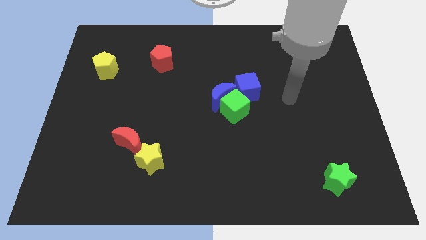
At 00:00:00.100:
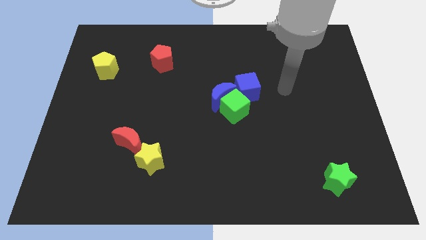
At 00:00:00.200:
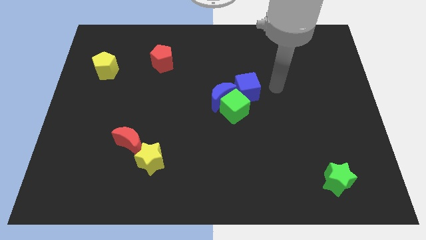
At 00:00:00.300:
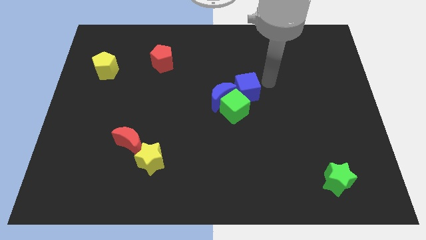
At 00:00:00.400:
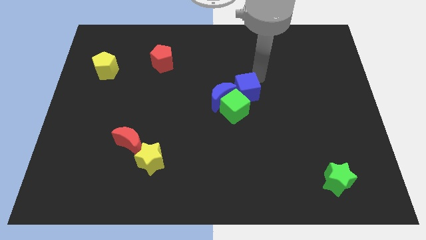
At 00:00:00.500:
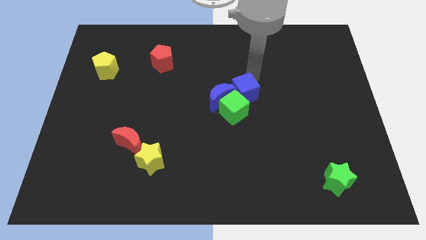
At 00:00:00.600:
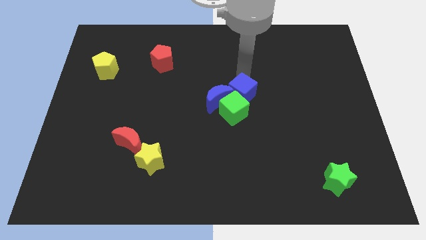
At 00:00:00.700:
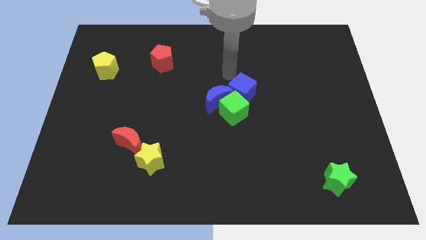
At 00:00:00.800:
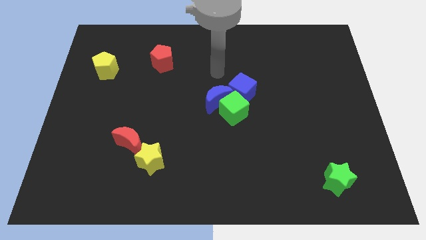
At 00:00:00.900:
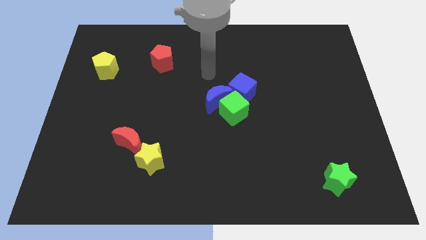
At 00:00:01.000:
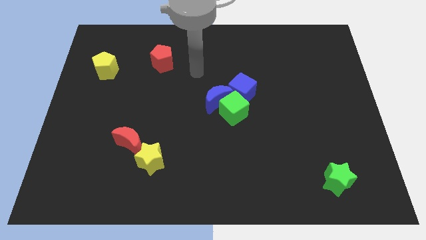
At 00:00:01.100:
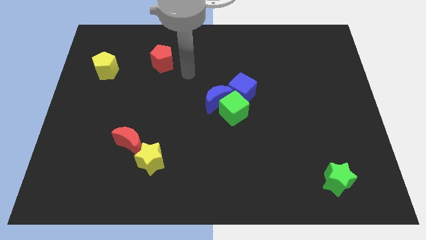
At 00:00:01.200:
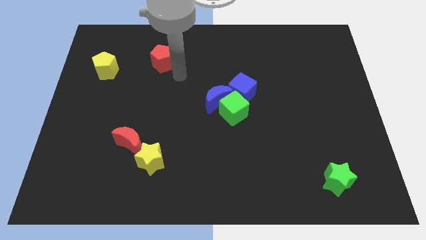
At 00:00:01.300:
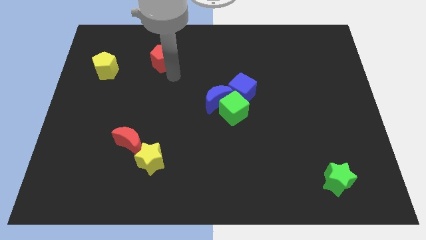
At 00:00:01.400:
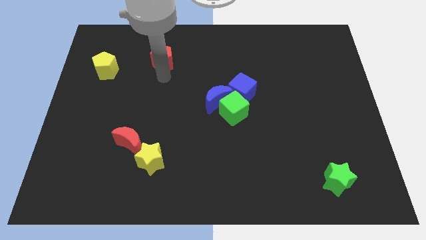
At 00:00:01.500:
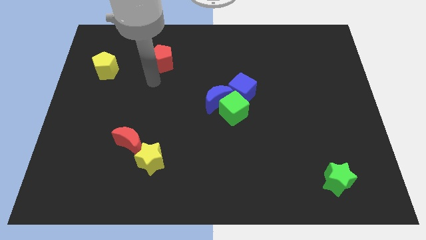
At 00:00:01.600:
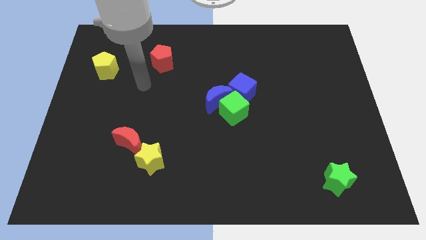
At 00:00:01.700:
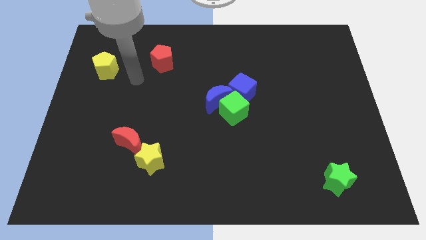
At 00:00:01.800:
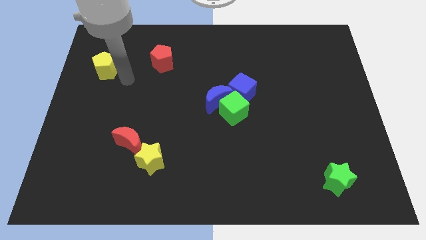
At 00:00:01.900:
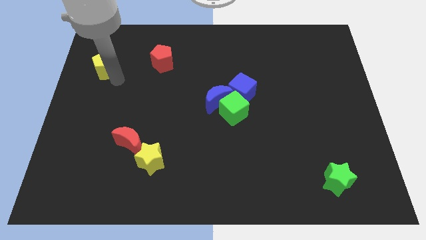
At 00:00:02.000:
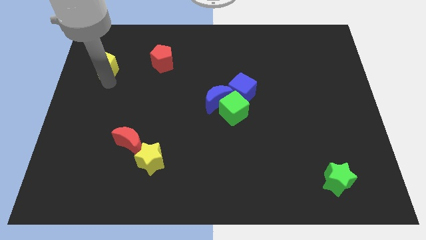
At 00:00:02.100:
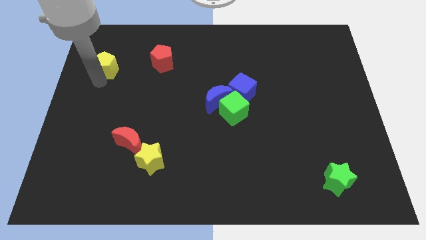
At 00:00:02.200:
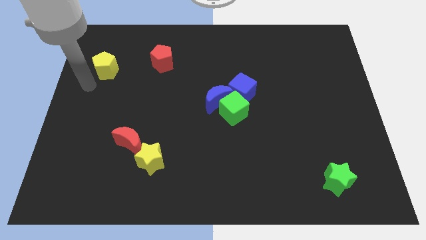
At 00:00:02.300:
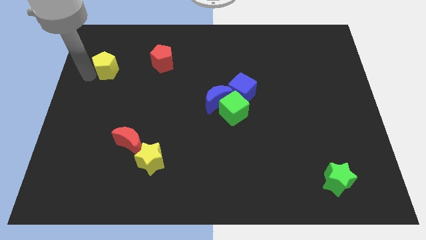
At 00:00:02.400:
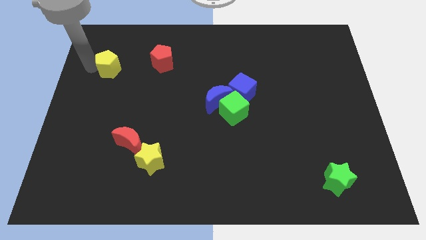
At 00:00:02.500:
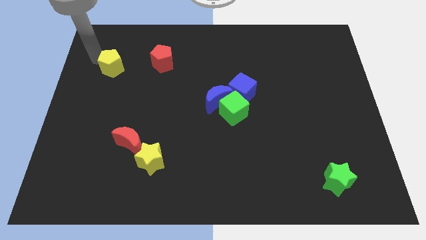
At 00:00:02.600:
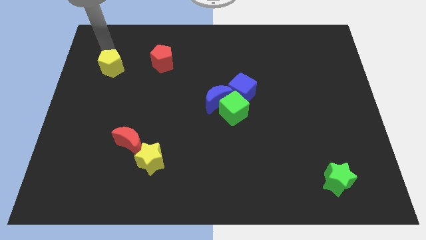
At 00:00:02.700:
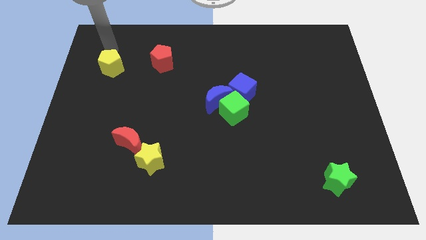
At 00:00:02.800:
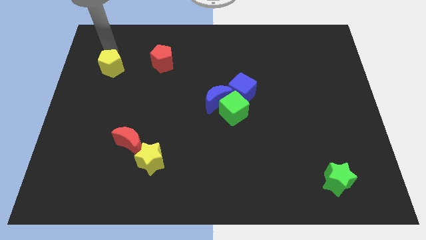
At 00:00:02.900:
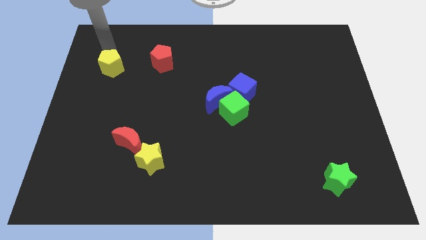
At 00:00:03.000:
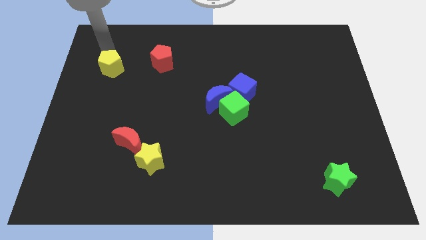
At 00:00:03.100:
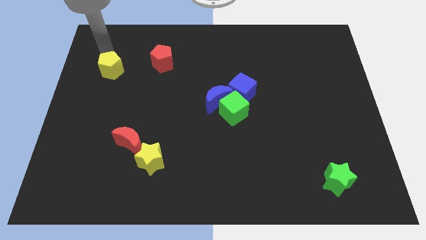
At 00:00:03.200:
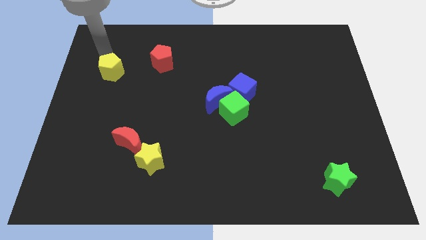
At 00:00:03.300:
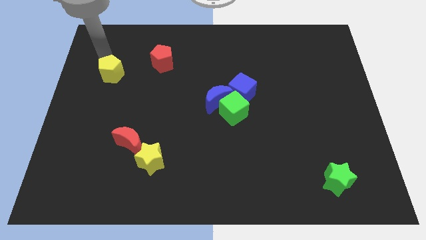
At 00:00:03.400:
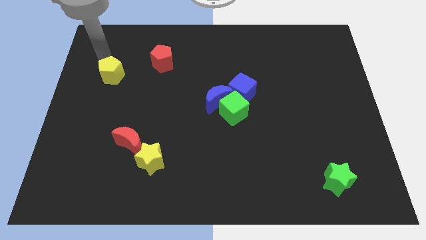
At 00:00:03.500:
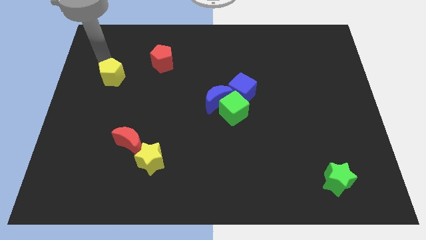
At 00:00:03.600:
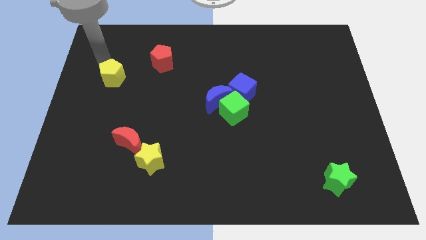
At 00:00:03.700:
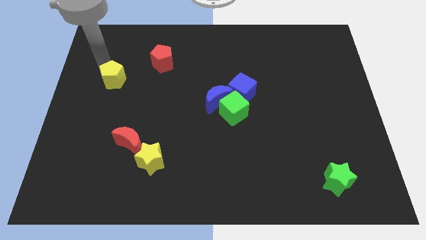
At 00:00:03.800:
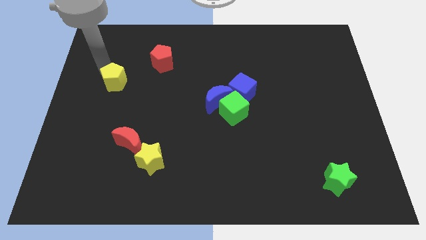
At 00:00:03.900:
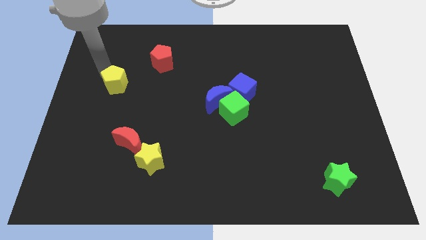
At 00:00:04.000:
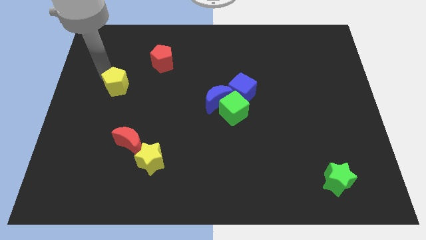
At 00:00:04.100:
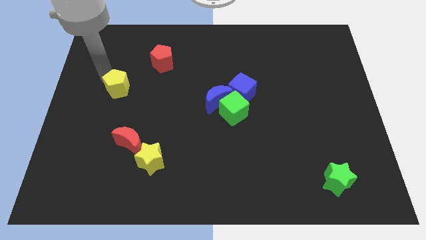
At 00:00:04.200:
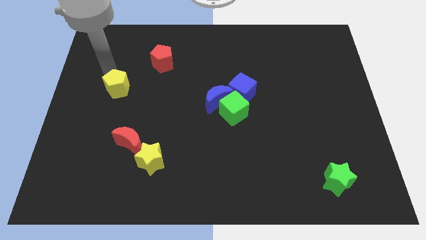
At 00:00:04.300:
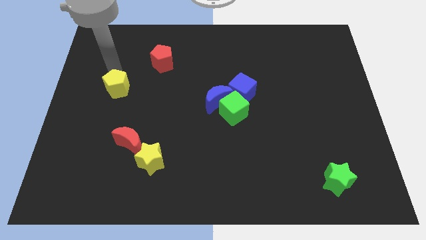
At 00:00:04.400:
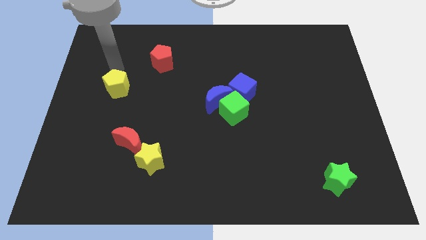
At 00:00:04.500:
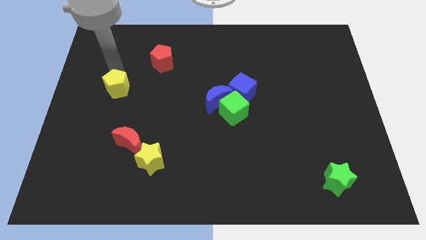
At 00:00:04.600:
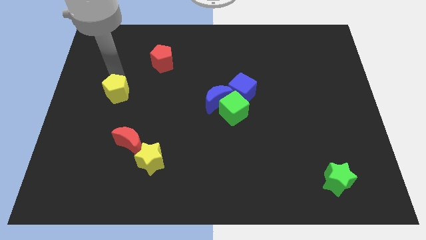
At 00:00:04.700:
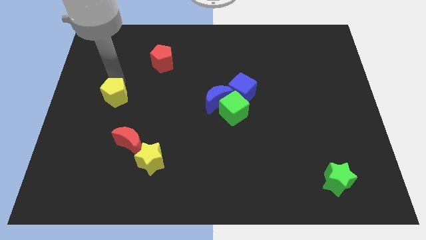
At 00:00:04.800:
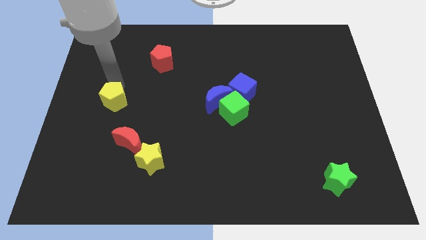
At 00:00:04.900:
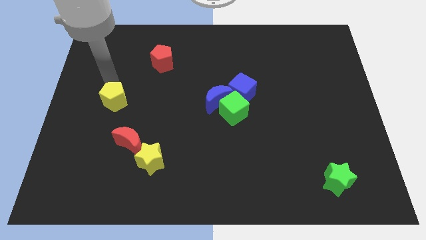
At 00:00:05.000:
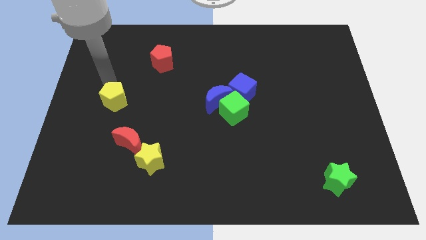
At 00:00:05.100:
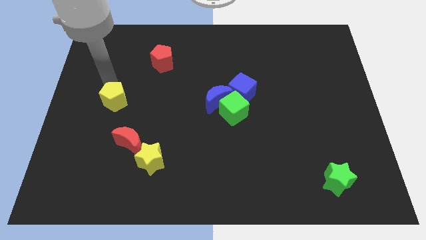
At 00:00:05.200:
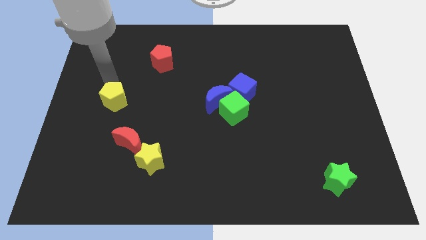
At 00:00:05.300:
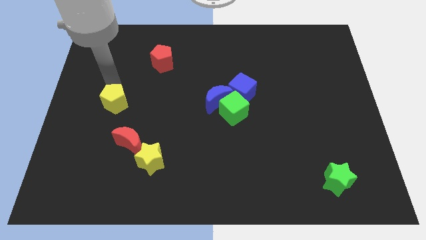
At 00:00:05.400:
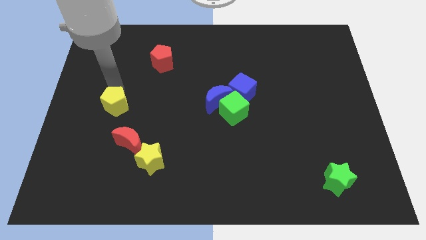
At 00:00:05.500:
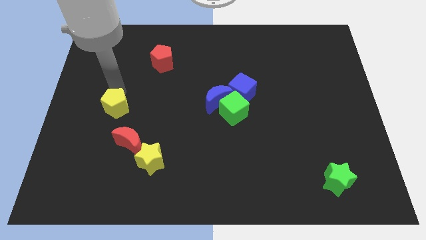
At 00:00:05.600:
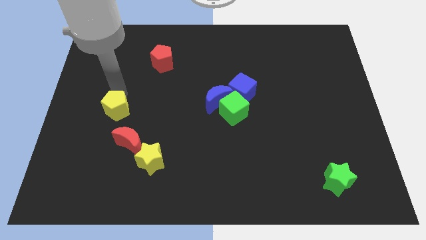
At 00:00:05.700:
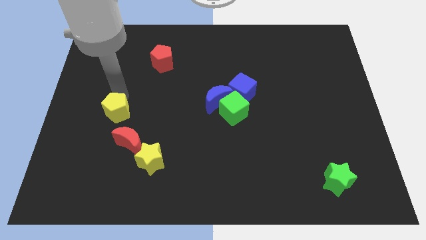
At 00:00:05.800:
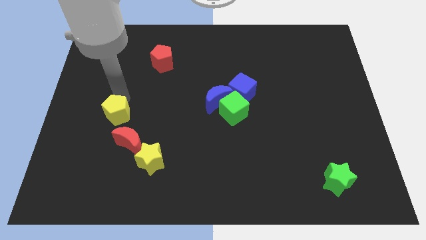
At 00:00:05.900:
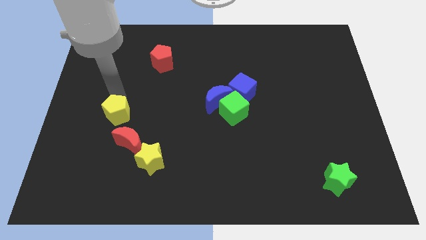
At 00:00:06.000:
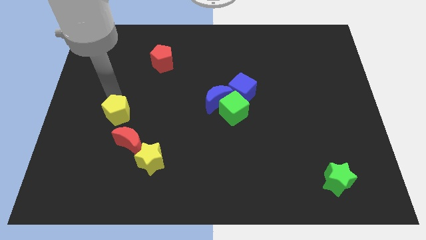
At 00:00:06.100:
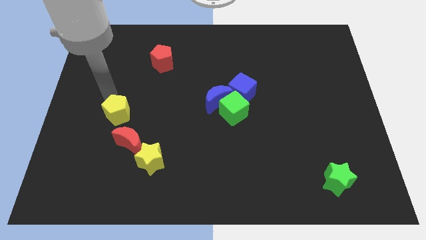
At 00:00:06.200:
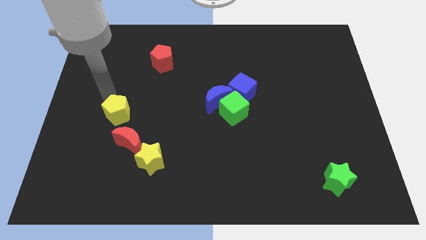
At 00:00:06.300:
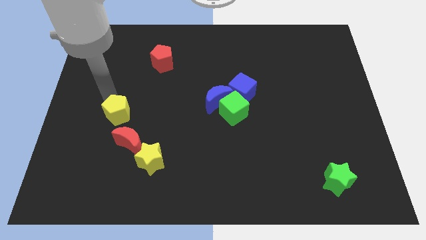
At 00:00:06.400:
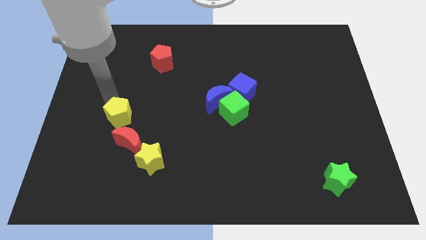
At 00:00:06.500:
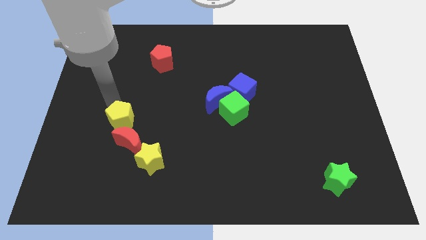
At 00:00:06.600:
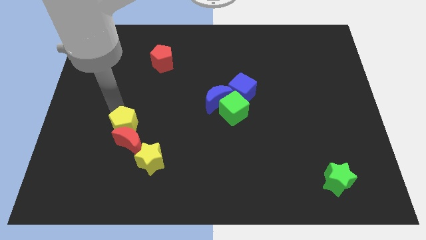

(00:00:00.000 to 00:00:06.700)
push the yellow pentagon close to the red moon

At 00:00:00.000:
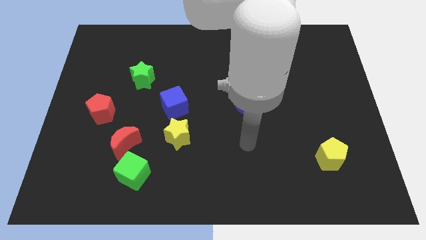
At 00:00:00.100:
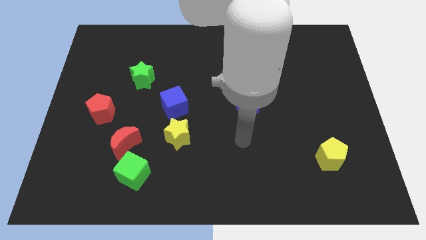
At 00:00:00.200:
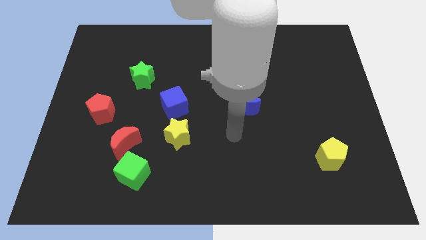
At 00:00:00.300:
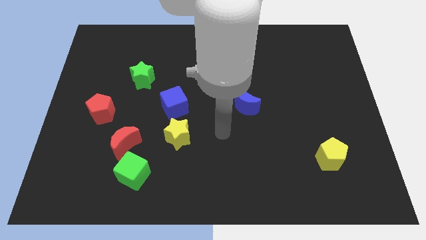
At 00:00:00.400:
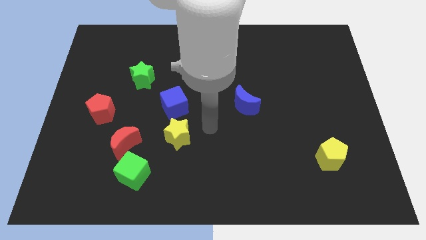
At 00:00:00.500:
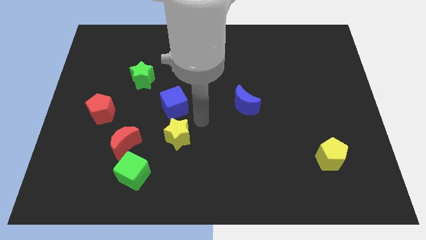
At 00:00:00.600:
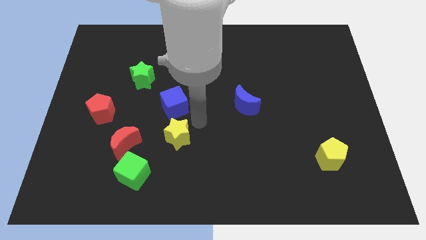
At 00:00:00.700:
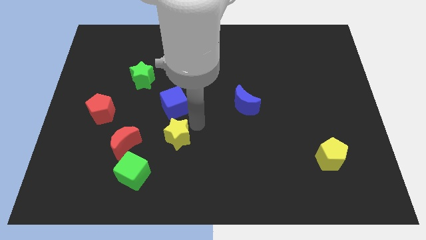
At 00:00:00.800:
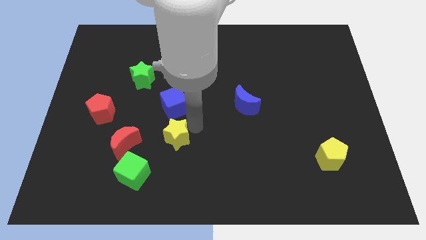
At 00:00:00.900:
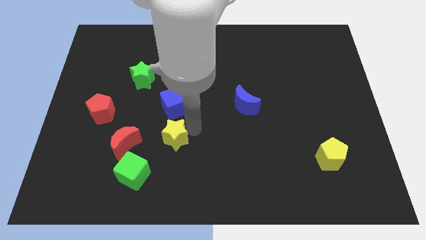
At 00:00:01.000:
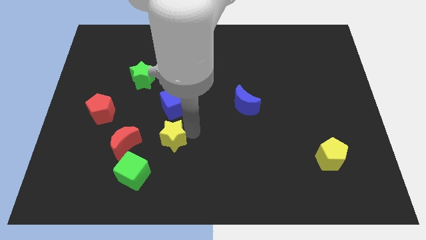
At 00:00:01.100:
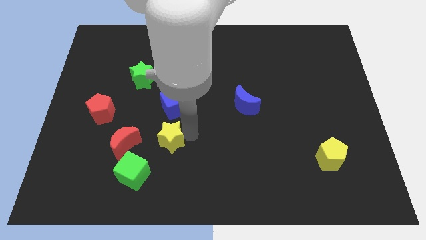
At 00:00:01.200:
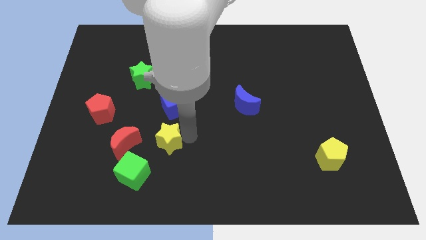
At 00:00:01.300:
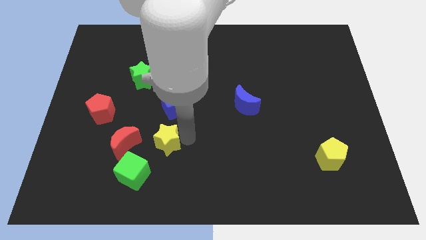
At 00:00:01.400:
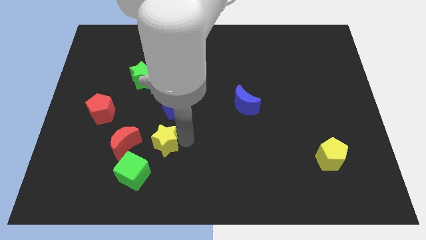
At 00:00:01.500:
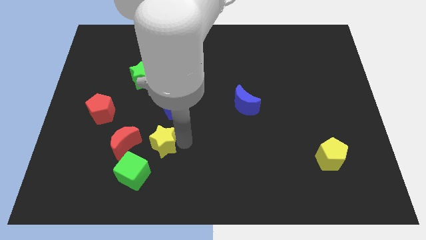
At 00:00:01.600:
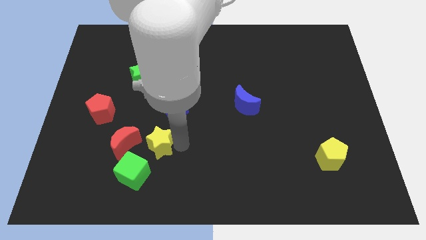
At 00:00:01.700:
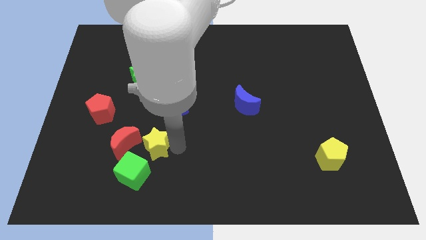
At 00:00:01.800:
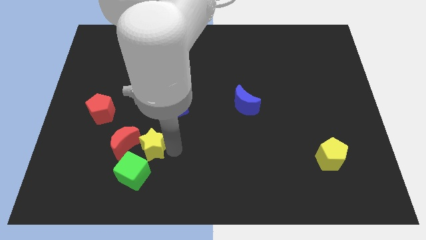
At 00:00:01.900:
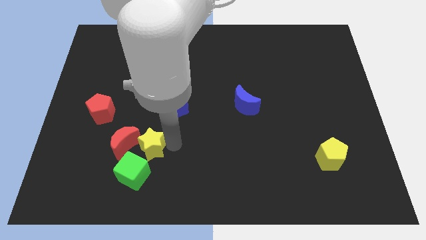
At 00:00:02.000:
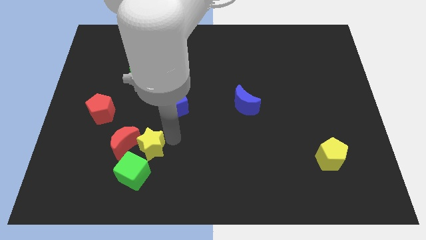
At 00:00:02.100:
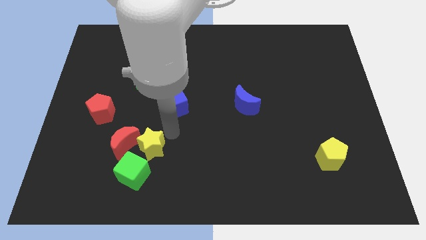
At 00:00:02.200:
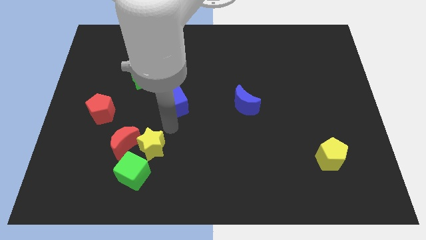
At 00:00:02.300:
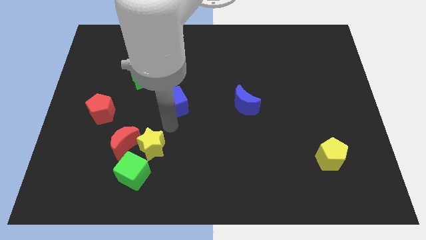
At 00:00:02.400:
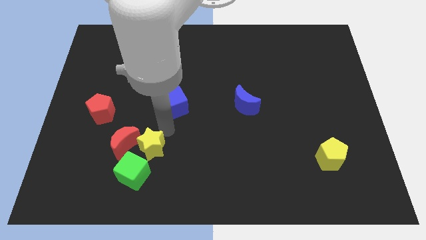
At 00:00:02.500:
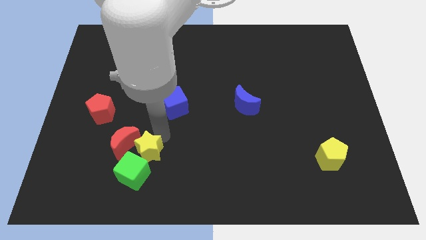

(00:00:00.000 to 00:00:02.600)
put the yellow star close to the green cube
